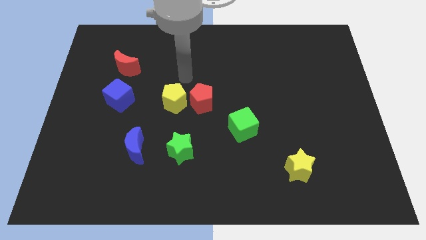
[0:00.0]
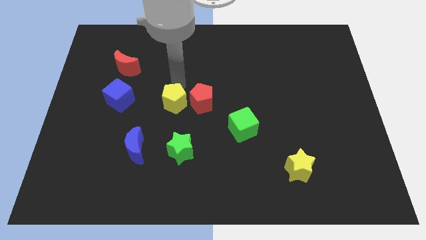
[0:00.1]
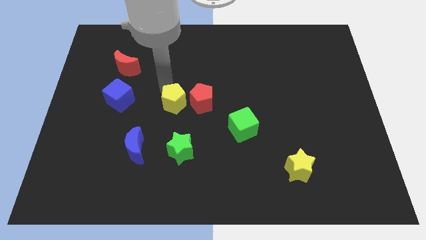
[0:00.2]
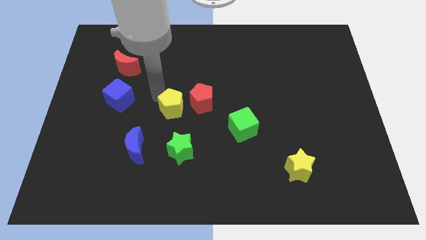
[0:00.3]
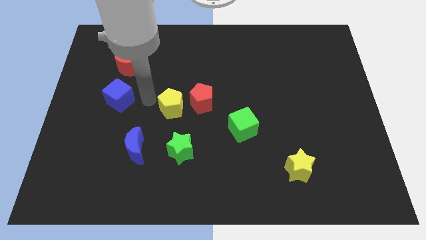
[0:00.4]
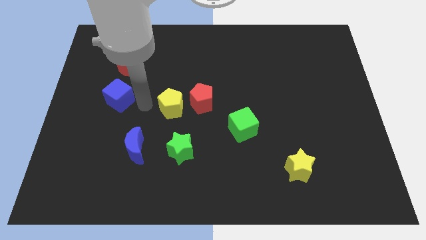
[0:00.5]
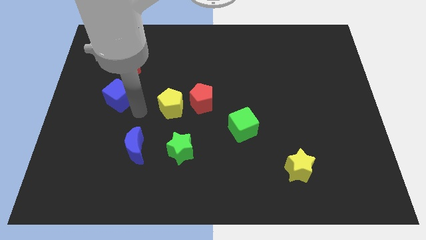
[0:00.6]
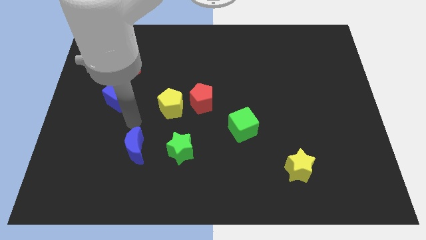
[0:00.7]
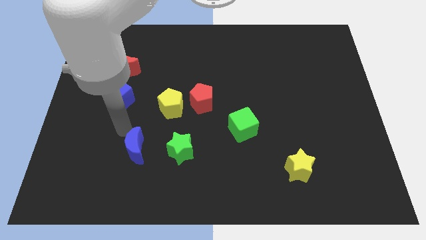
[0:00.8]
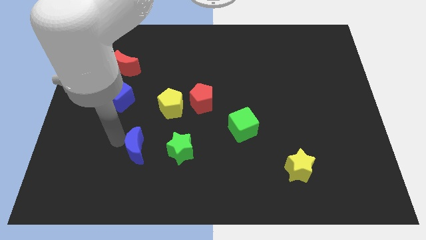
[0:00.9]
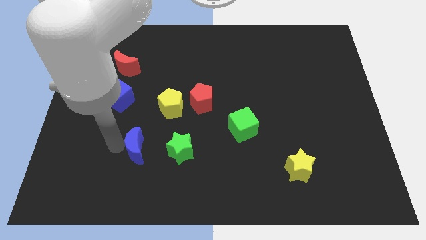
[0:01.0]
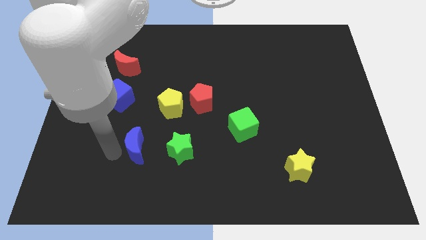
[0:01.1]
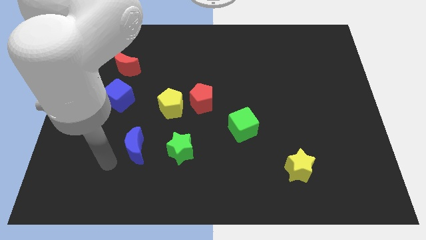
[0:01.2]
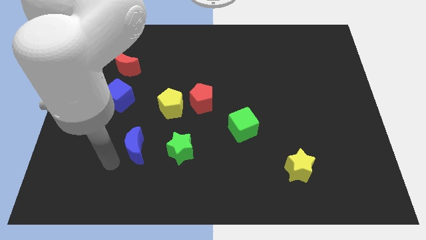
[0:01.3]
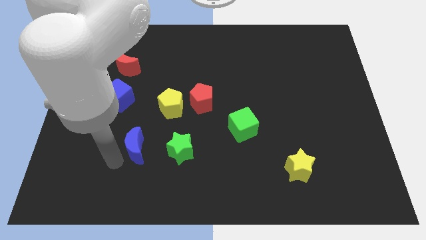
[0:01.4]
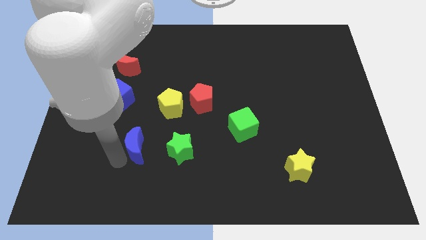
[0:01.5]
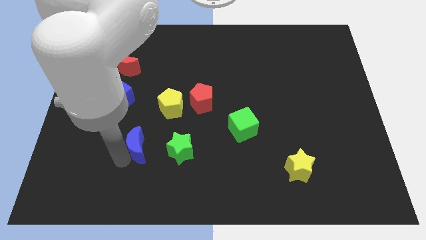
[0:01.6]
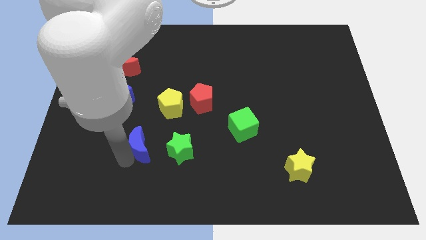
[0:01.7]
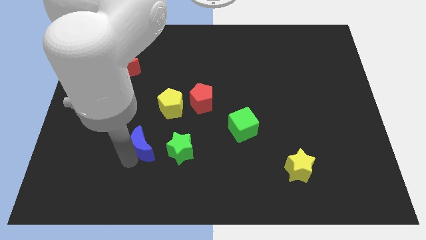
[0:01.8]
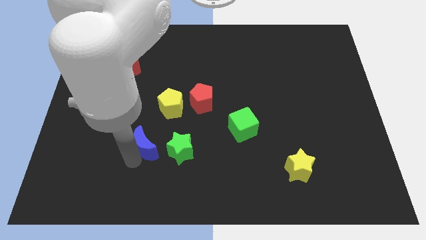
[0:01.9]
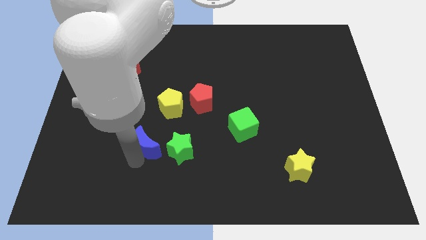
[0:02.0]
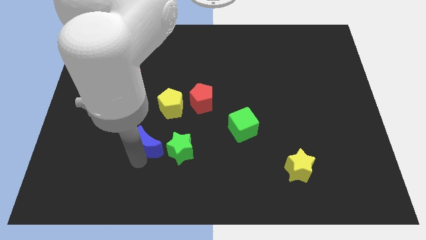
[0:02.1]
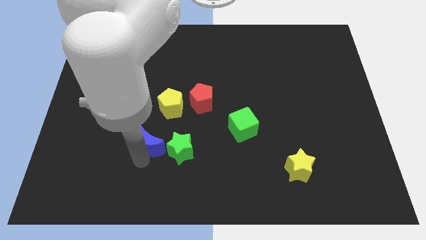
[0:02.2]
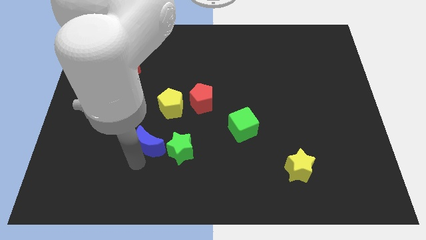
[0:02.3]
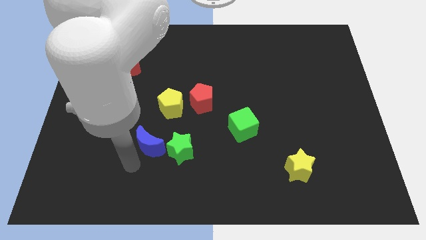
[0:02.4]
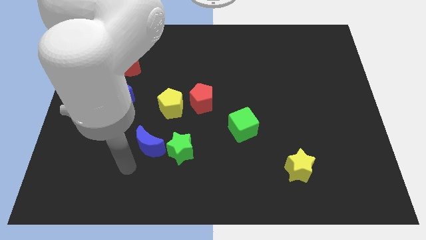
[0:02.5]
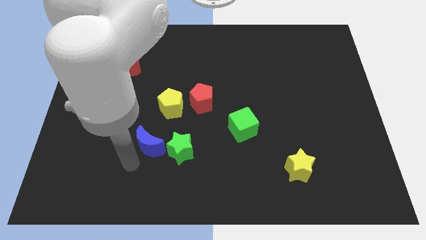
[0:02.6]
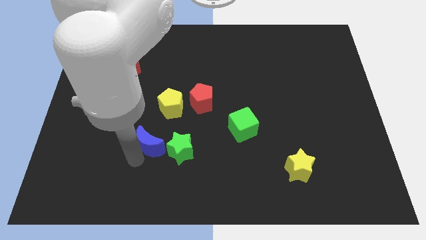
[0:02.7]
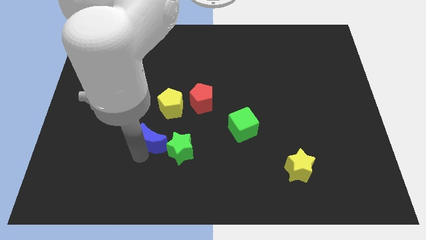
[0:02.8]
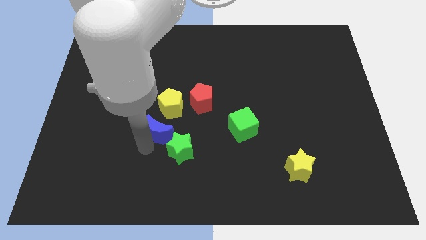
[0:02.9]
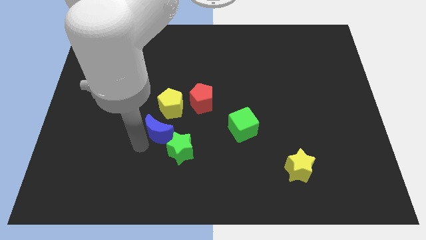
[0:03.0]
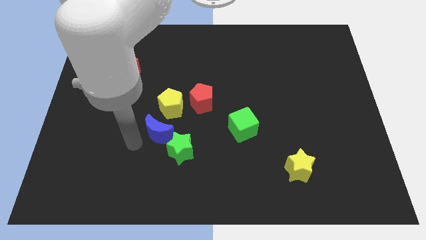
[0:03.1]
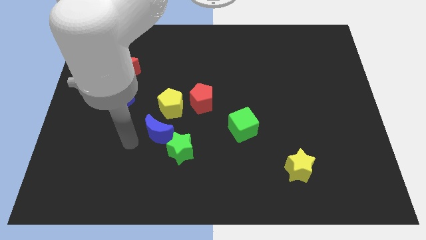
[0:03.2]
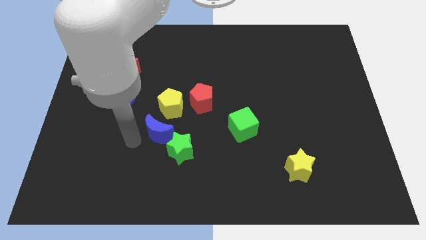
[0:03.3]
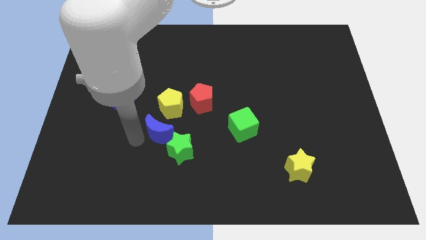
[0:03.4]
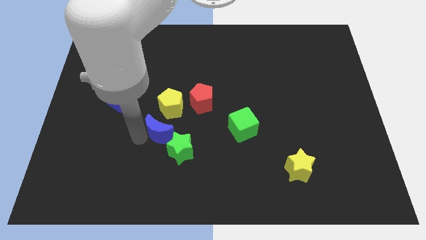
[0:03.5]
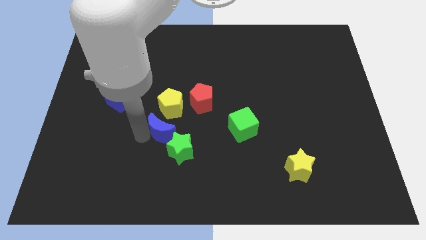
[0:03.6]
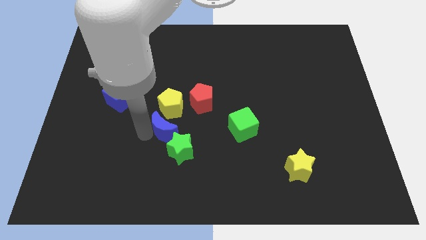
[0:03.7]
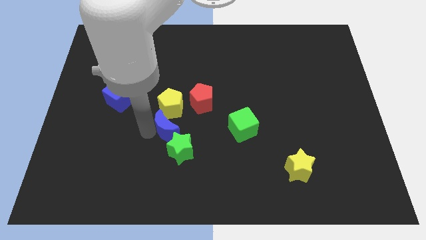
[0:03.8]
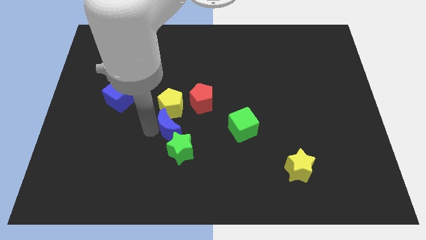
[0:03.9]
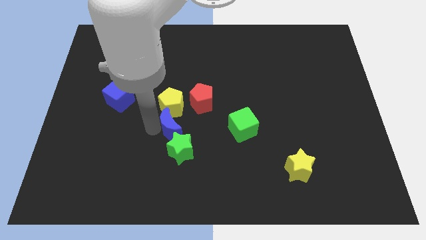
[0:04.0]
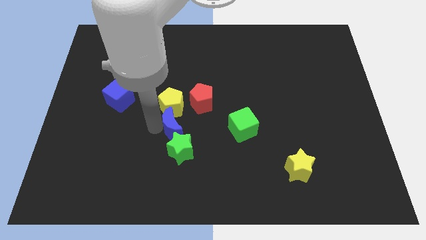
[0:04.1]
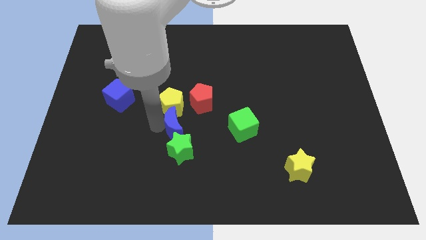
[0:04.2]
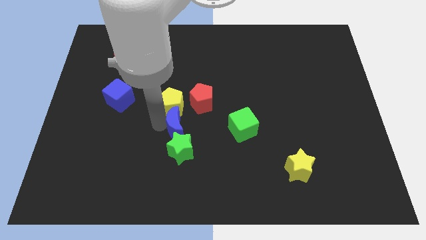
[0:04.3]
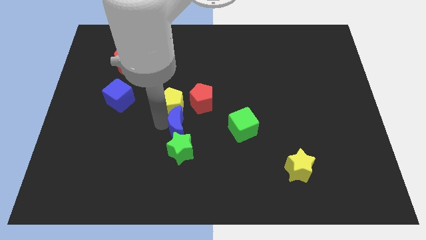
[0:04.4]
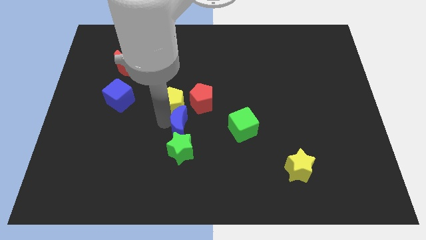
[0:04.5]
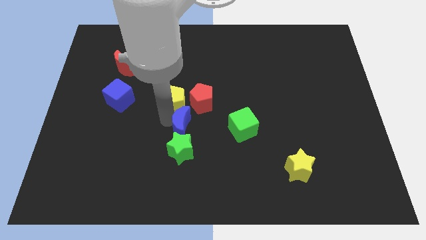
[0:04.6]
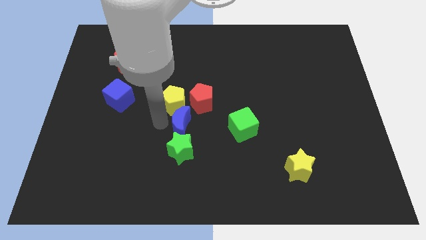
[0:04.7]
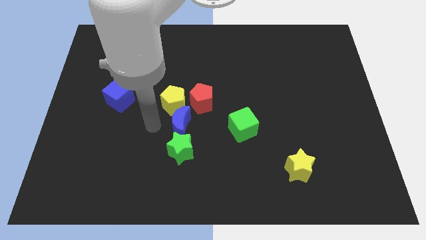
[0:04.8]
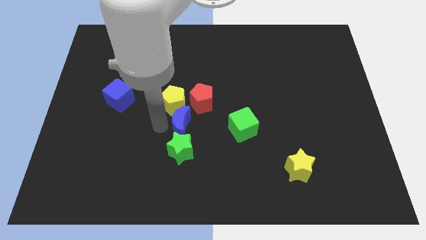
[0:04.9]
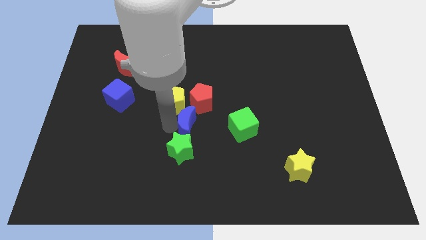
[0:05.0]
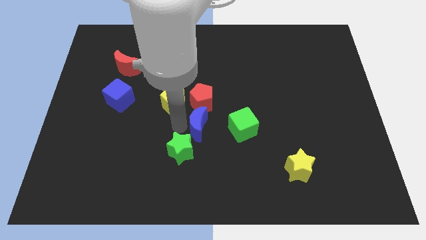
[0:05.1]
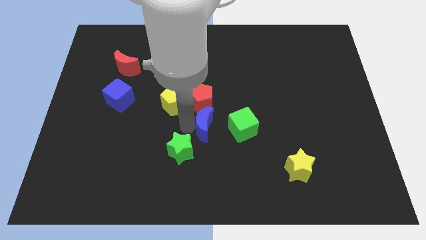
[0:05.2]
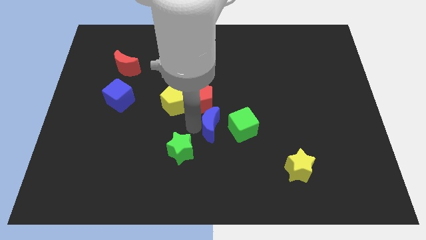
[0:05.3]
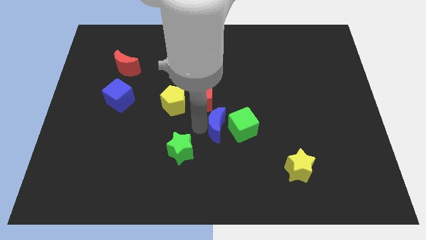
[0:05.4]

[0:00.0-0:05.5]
slide the blue moon next to the green cube

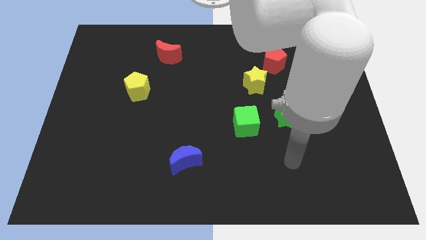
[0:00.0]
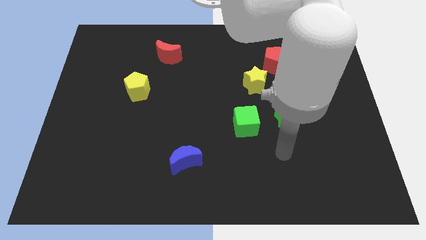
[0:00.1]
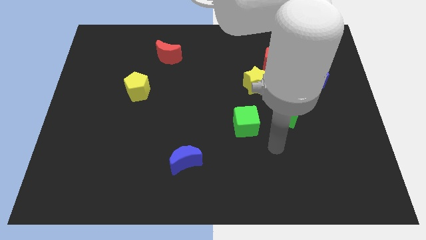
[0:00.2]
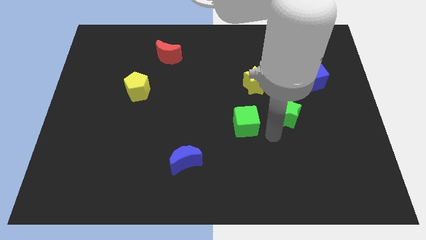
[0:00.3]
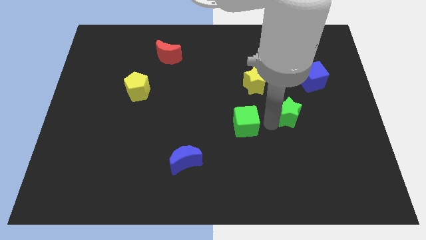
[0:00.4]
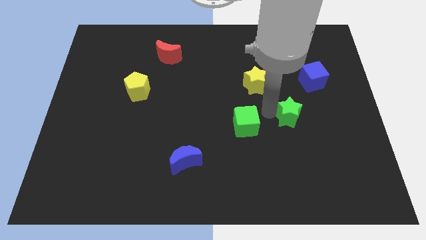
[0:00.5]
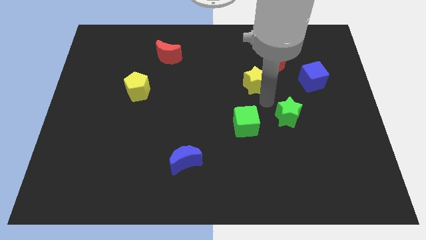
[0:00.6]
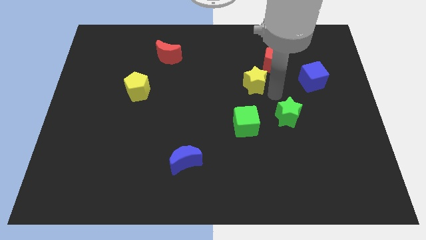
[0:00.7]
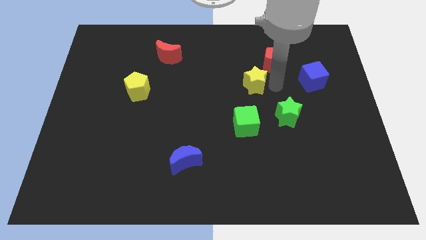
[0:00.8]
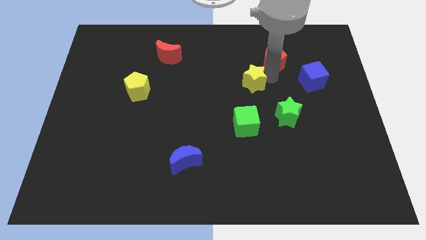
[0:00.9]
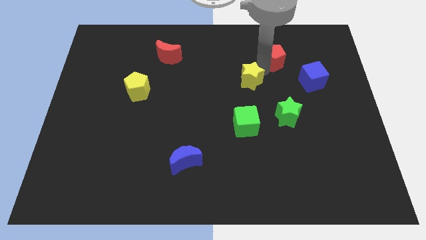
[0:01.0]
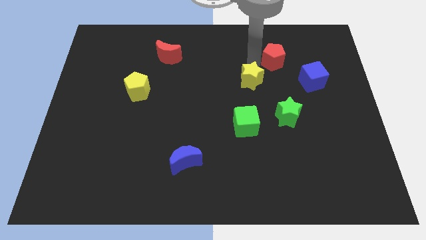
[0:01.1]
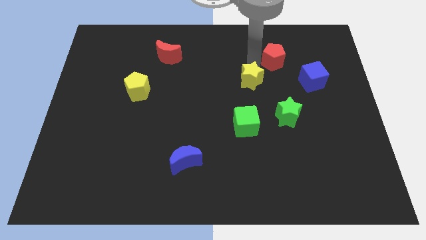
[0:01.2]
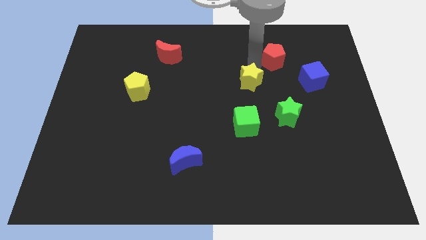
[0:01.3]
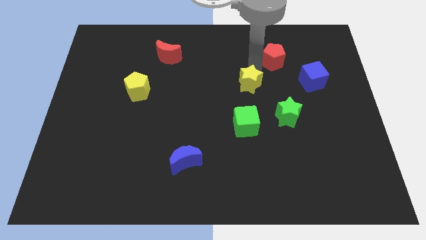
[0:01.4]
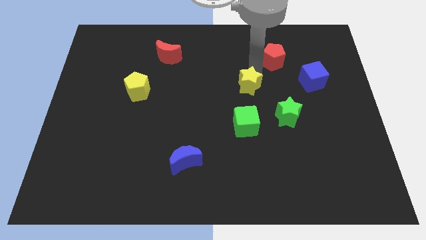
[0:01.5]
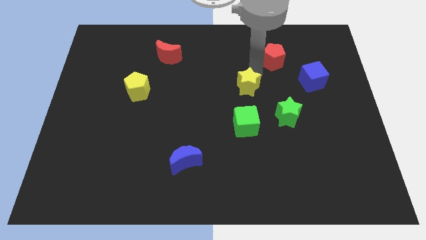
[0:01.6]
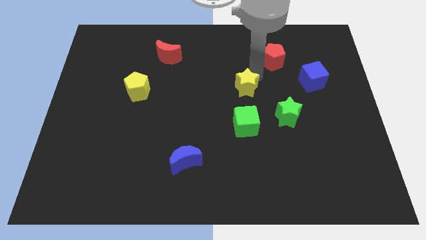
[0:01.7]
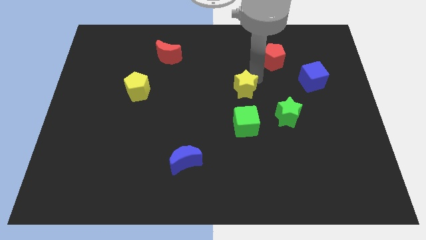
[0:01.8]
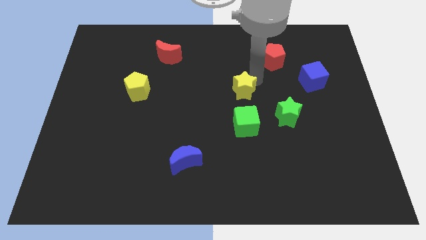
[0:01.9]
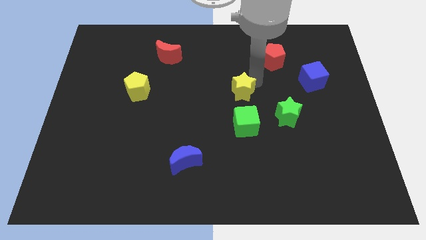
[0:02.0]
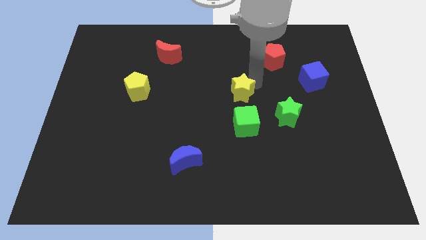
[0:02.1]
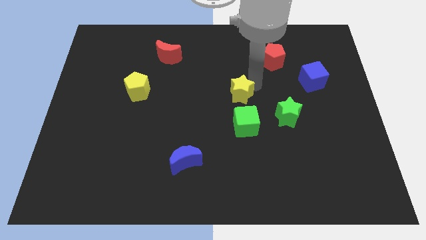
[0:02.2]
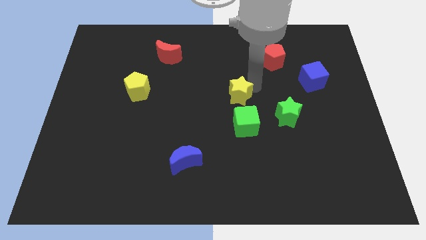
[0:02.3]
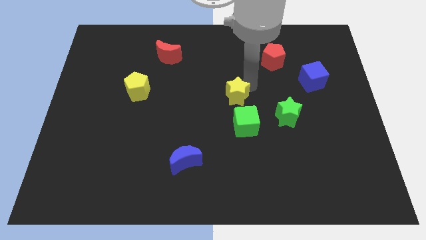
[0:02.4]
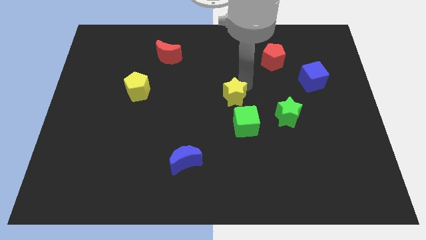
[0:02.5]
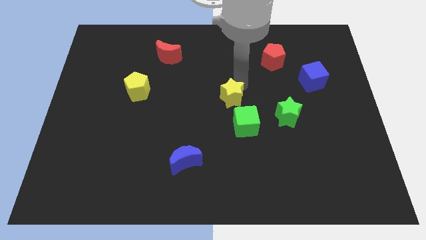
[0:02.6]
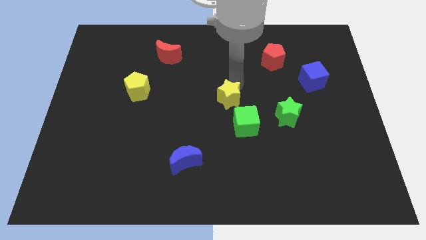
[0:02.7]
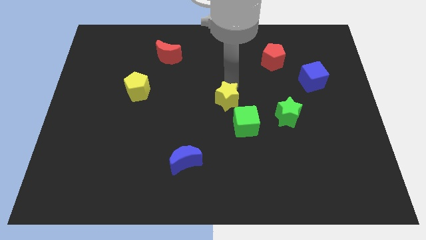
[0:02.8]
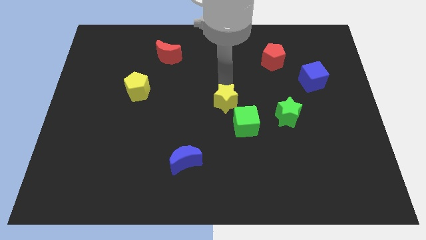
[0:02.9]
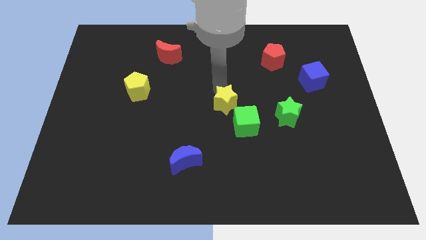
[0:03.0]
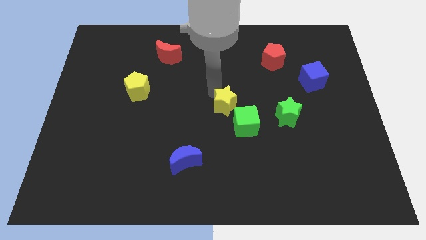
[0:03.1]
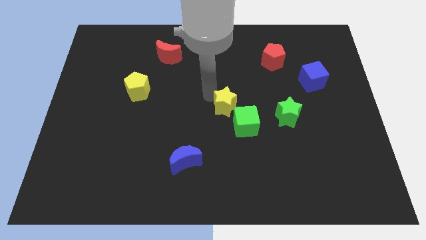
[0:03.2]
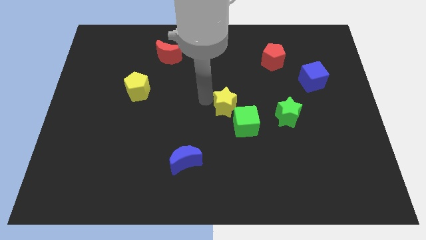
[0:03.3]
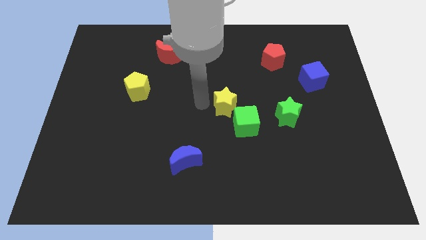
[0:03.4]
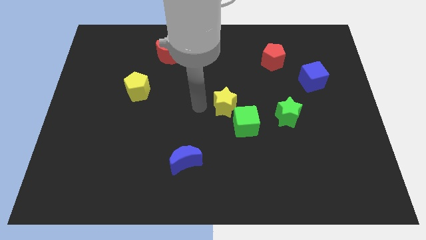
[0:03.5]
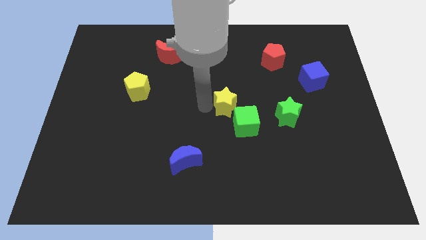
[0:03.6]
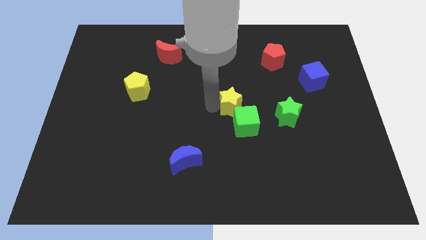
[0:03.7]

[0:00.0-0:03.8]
push the yellow star to the green cube
